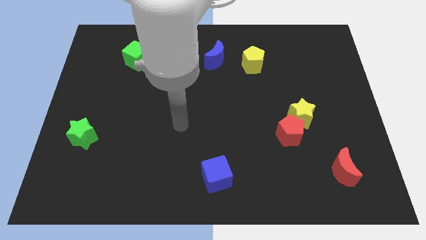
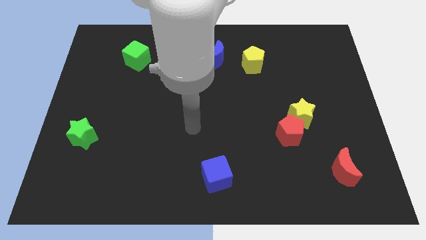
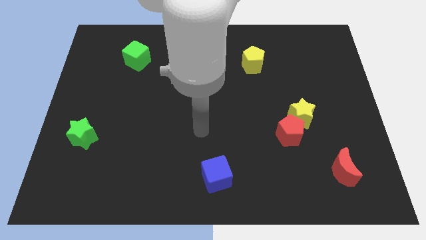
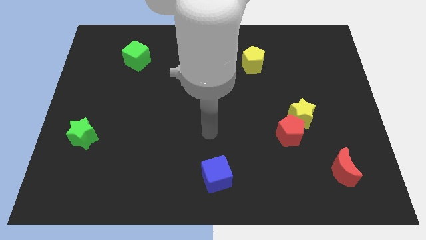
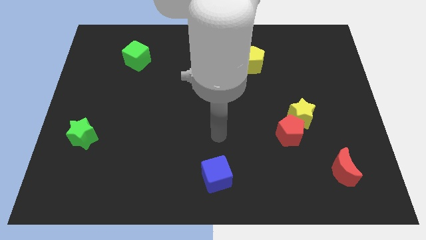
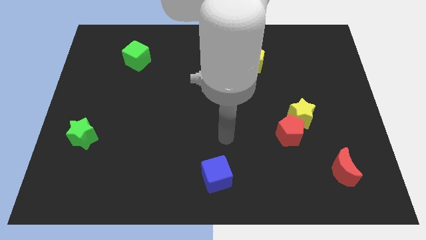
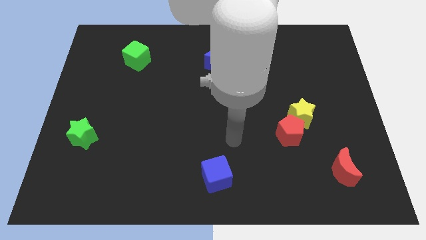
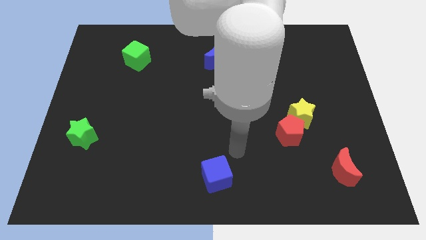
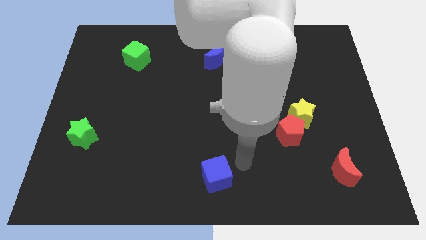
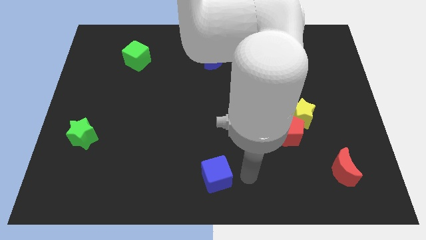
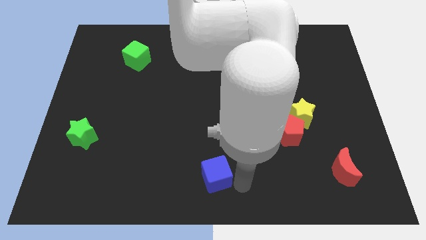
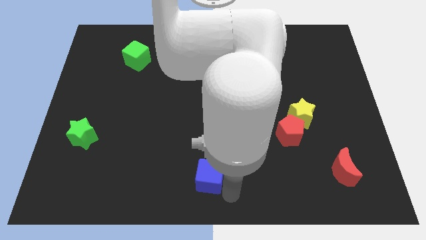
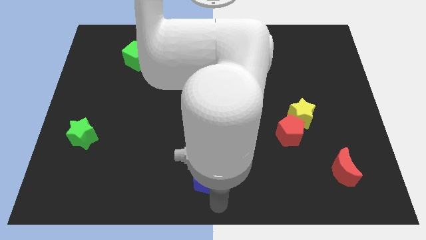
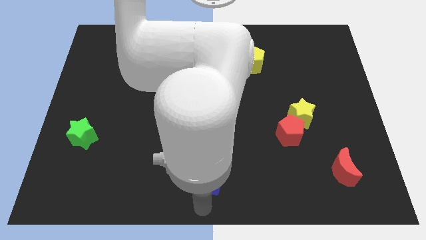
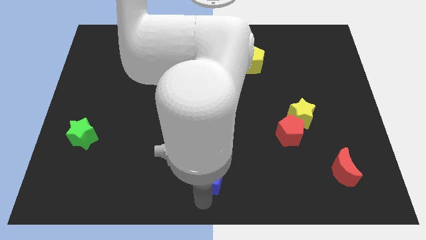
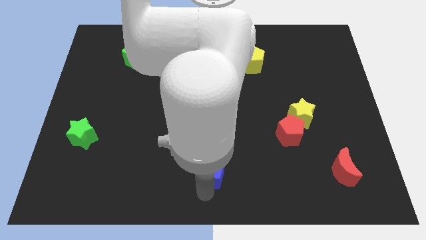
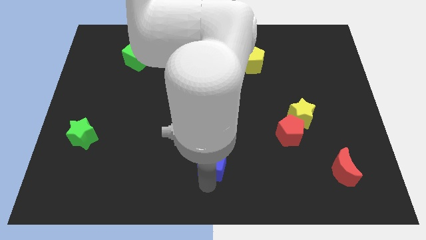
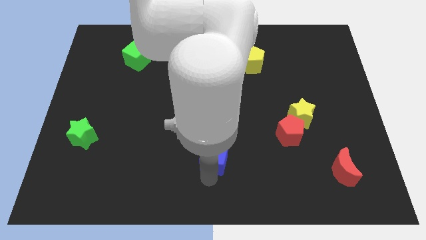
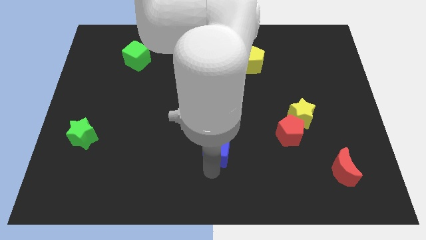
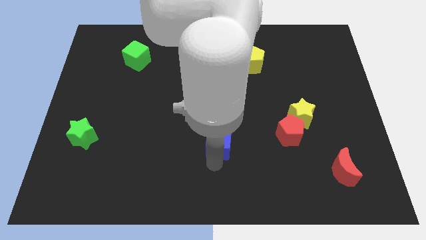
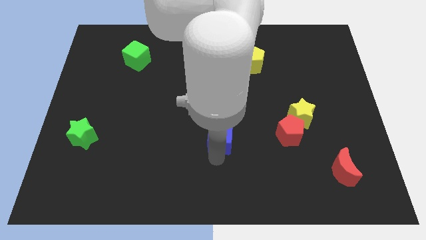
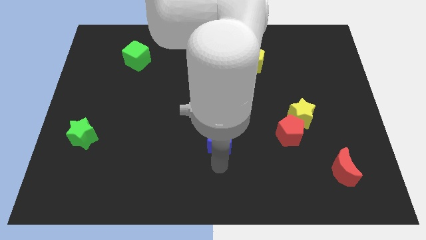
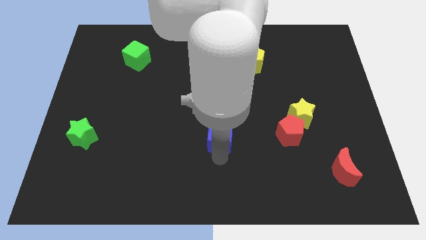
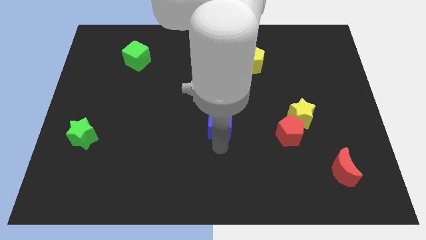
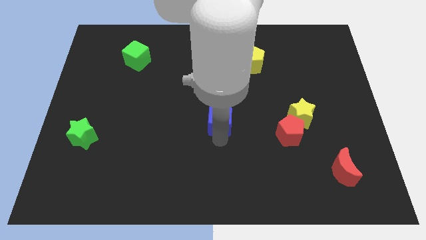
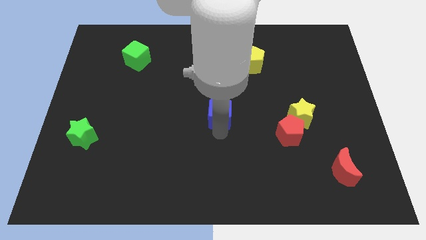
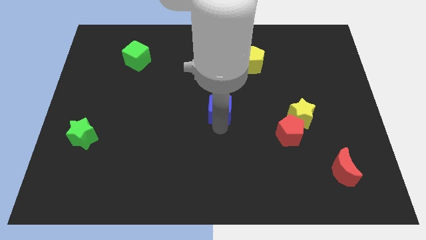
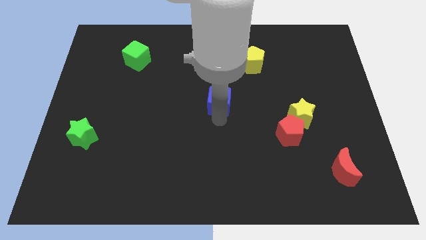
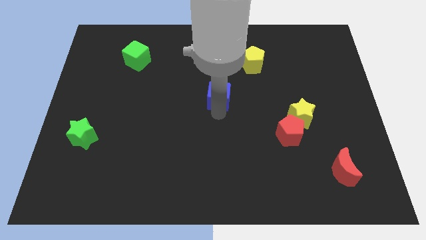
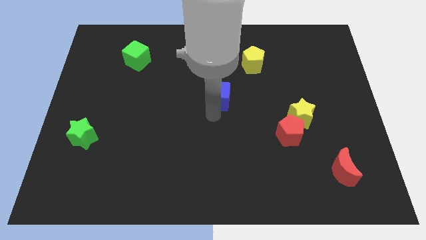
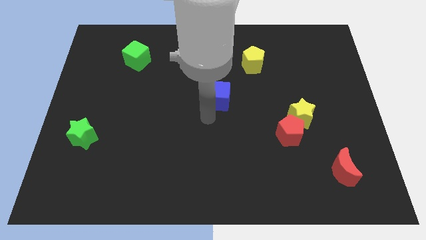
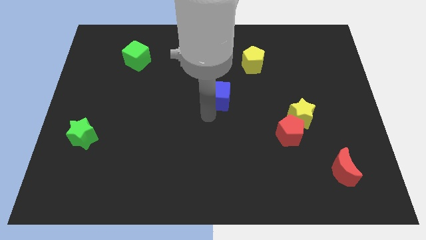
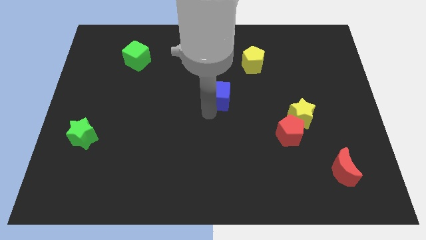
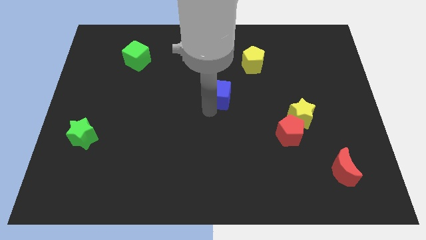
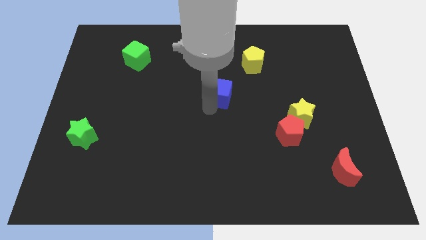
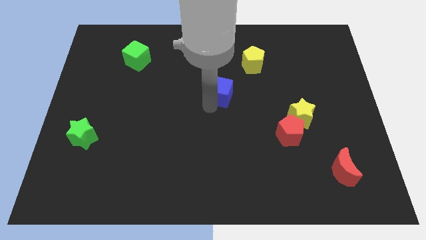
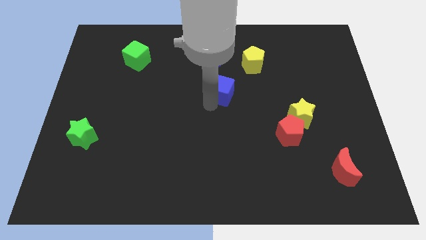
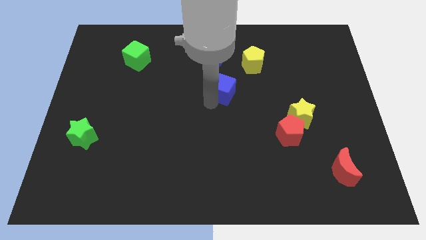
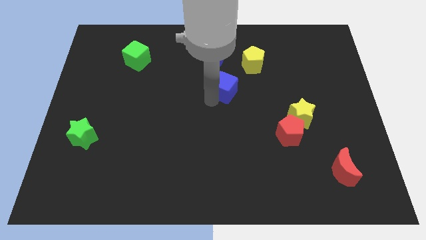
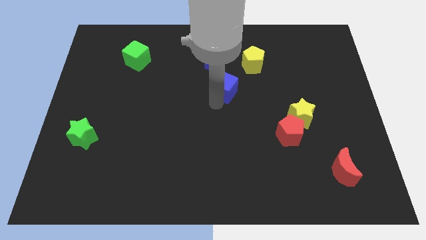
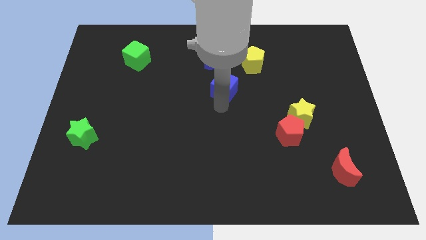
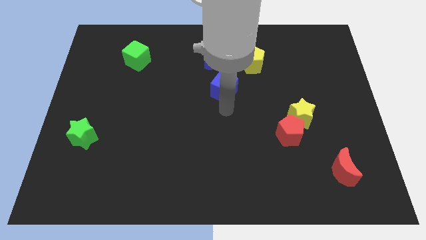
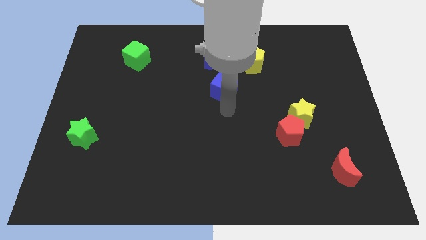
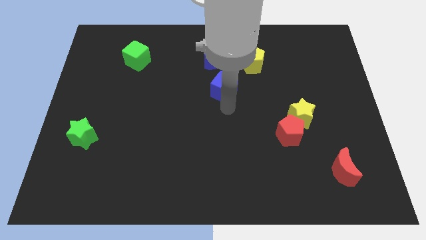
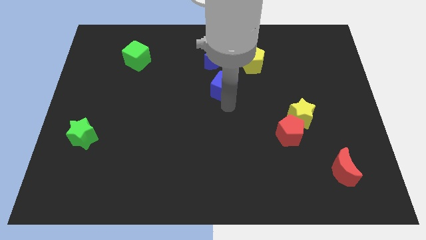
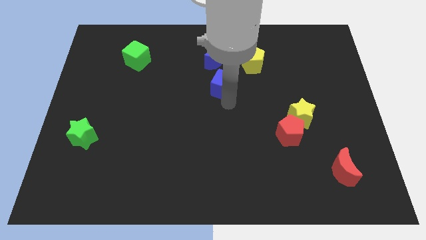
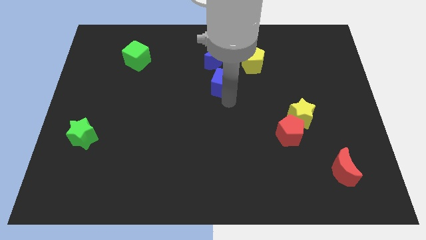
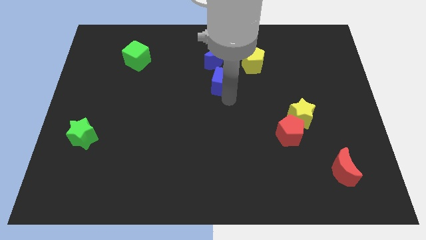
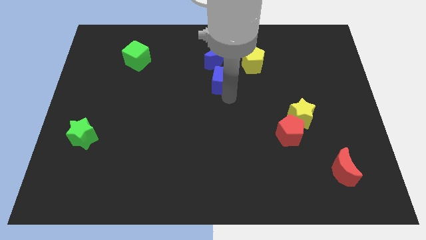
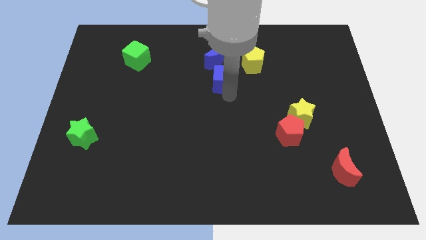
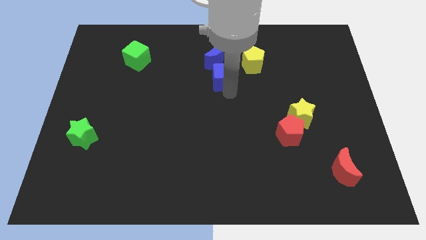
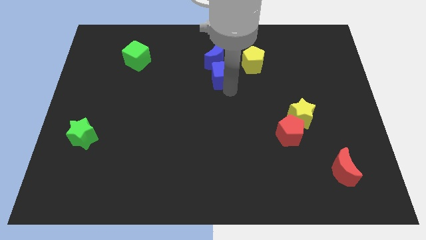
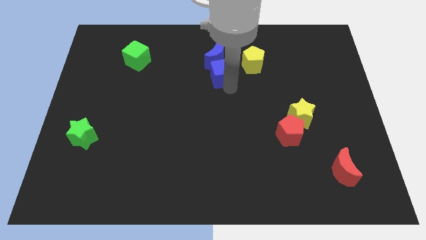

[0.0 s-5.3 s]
put the blue cube next to the blue moon

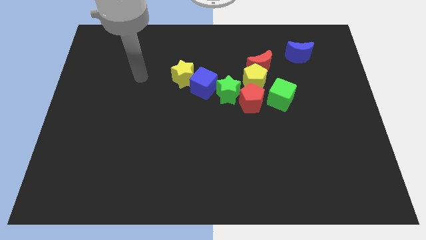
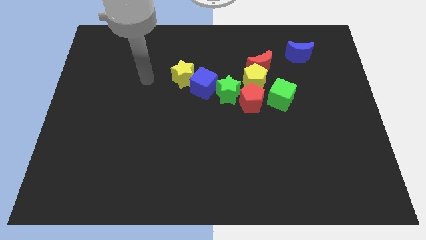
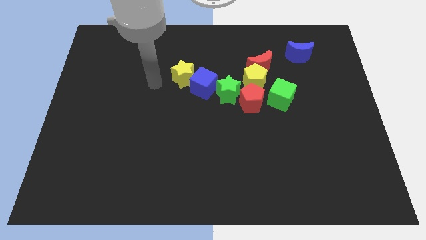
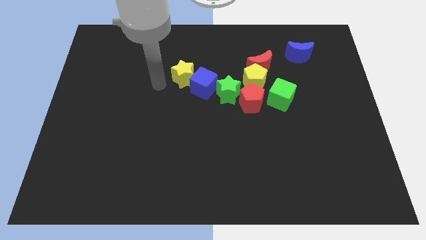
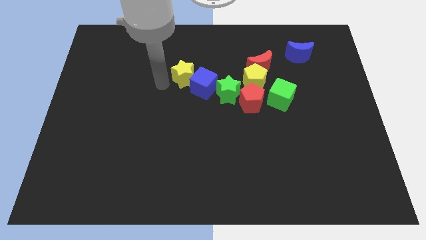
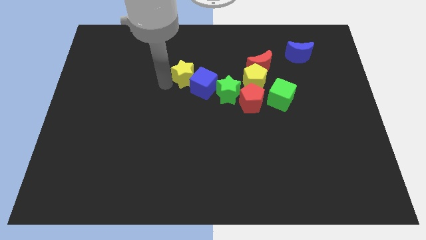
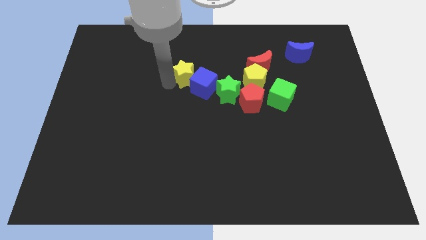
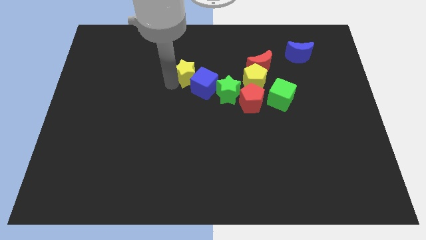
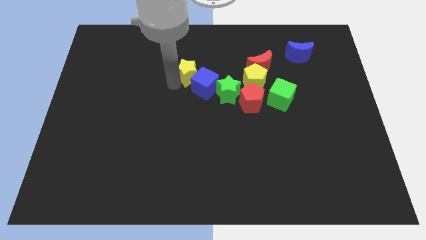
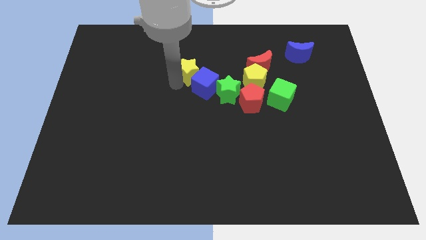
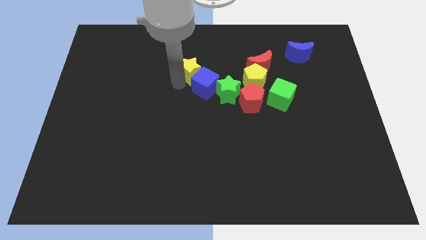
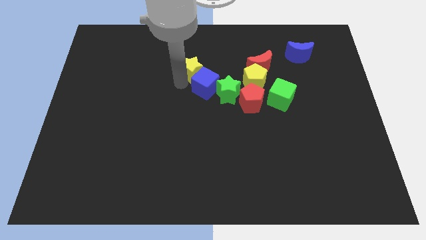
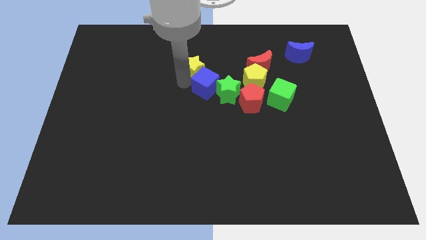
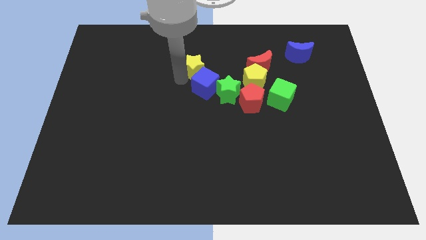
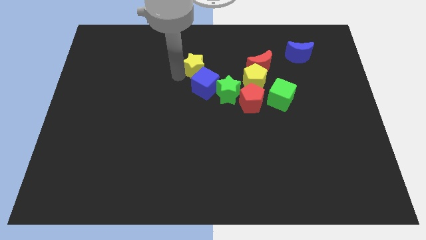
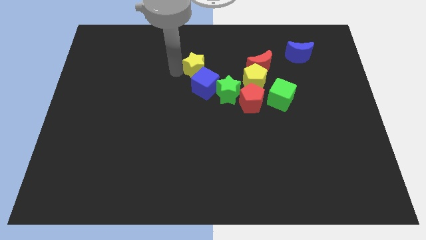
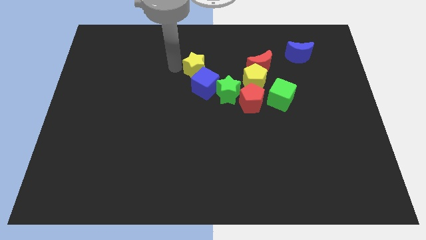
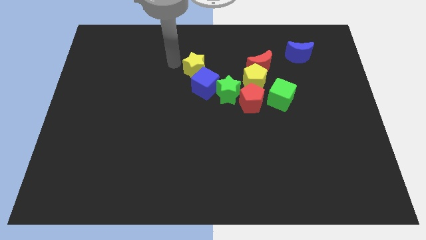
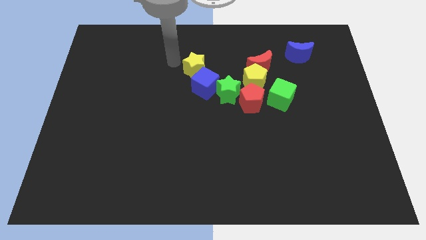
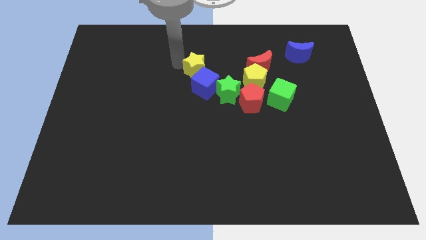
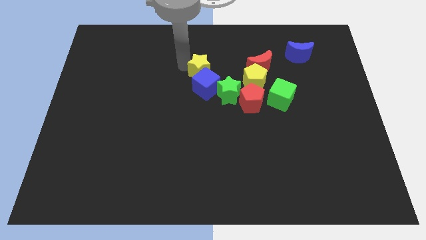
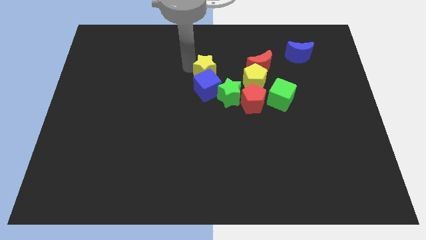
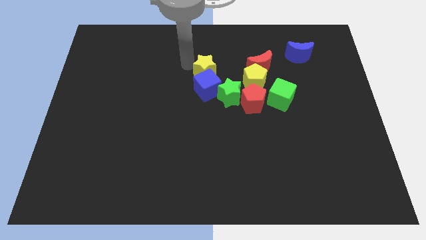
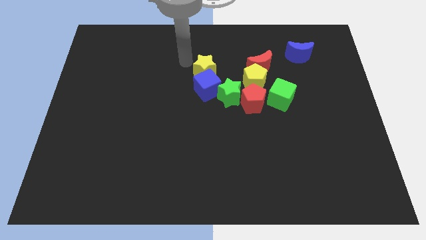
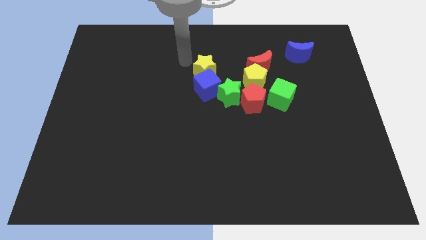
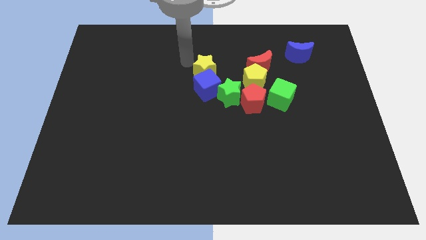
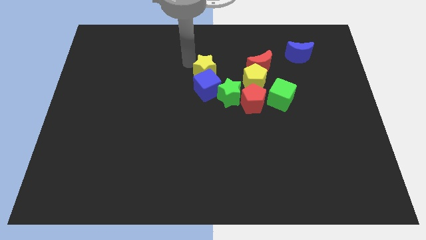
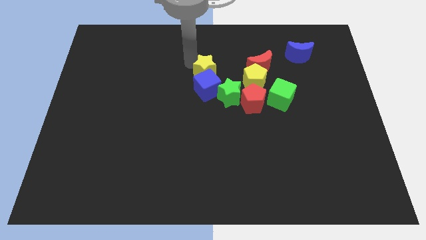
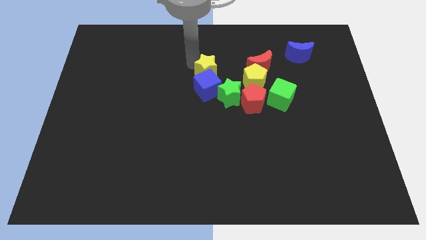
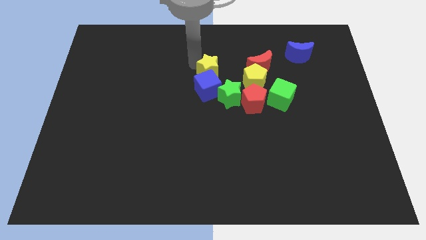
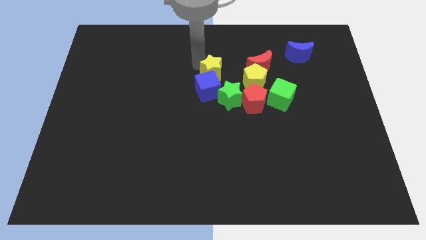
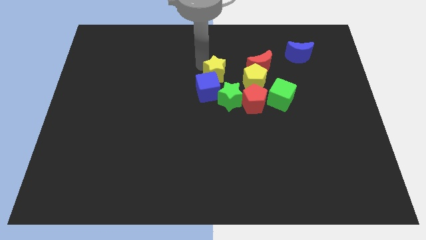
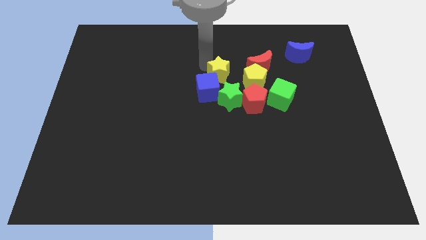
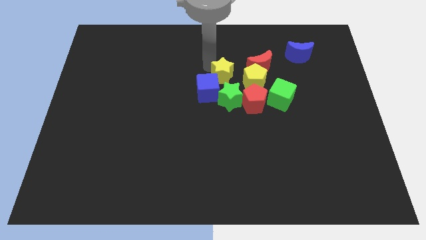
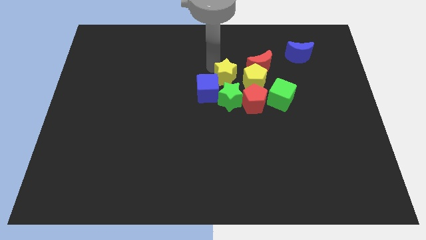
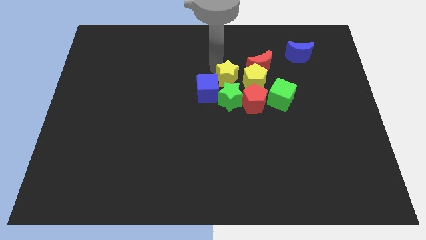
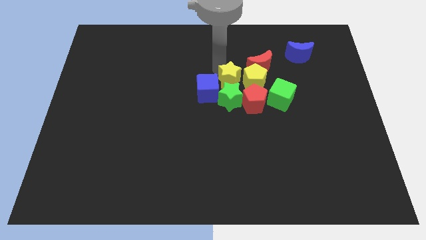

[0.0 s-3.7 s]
move the yellow star close to the green star
